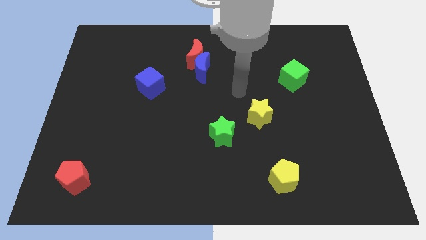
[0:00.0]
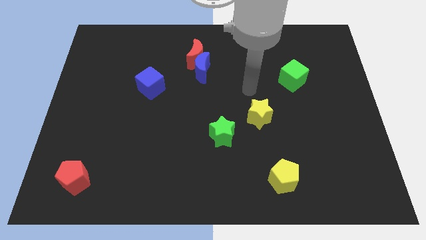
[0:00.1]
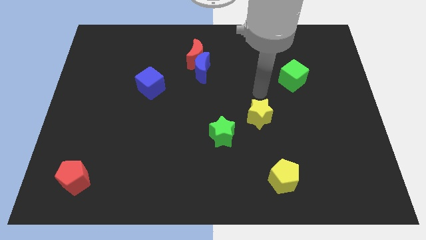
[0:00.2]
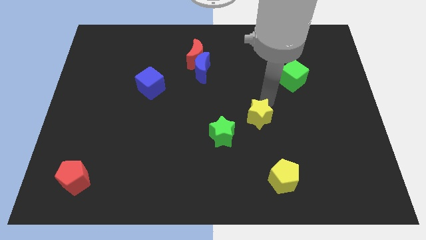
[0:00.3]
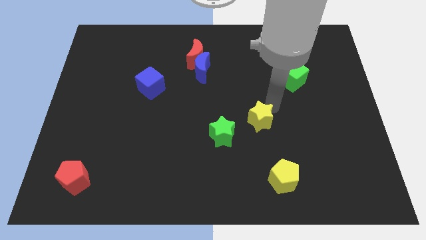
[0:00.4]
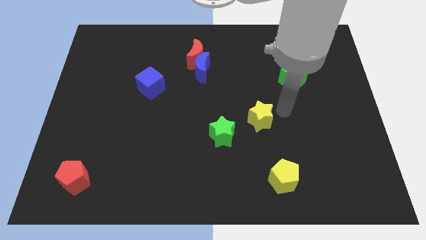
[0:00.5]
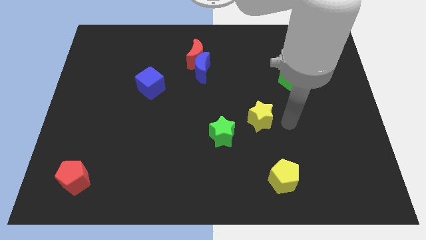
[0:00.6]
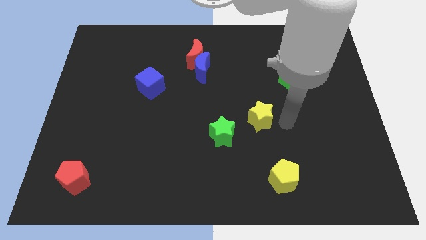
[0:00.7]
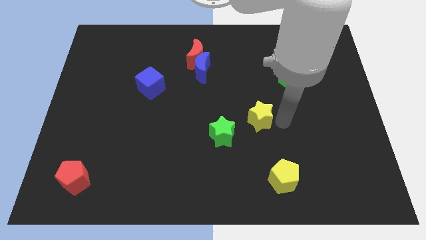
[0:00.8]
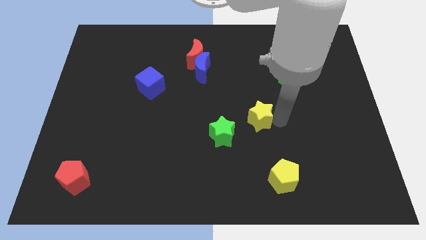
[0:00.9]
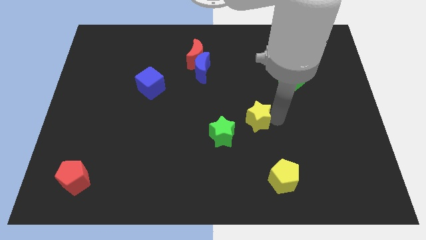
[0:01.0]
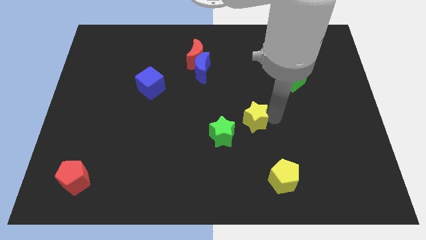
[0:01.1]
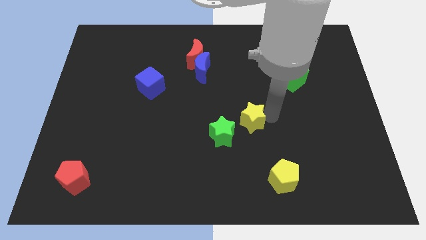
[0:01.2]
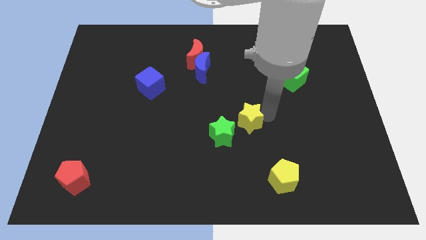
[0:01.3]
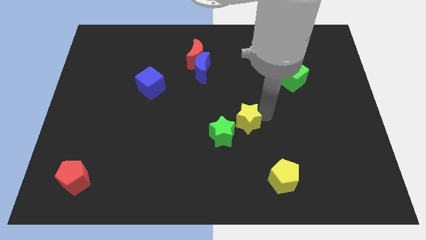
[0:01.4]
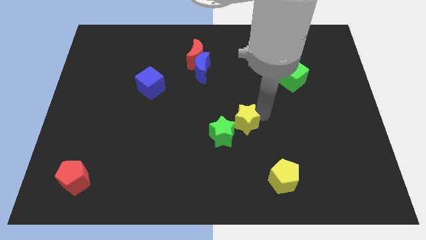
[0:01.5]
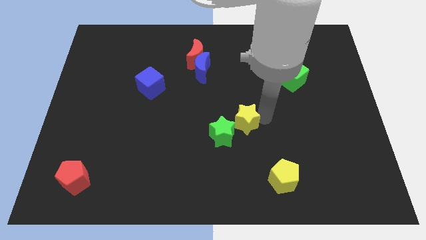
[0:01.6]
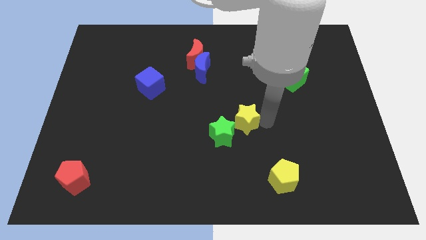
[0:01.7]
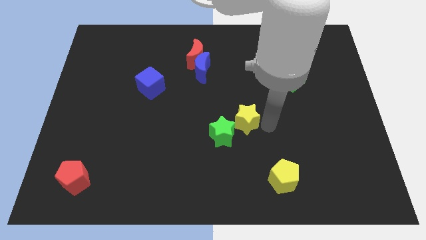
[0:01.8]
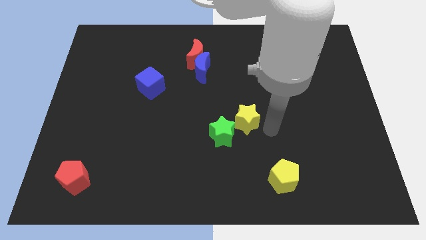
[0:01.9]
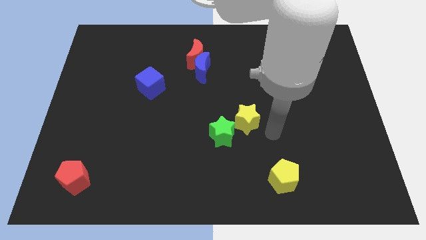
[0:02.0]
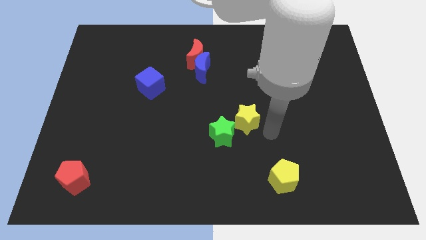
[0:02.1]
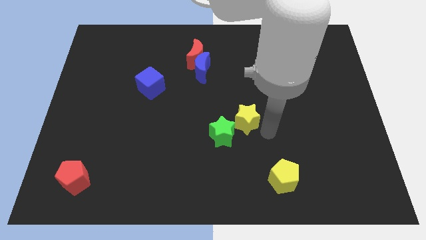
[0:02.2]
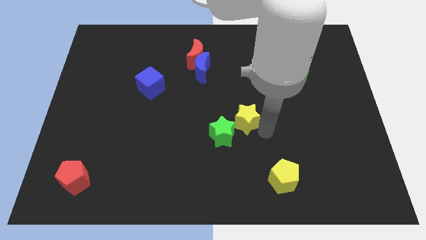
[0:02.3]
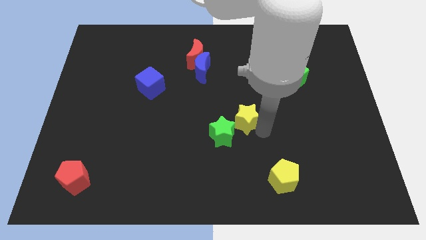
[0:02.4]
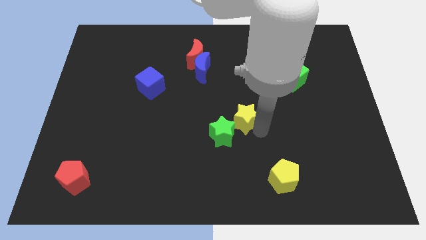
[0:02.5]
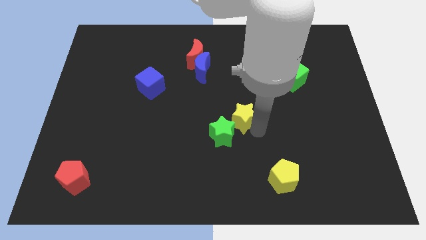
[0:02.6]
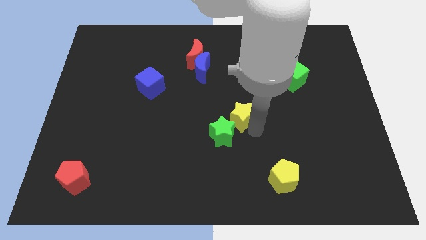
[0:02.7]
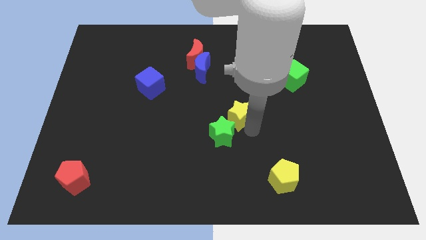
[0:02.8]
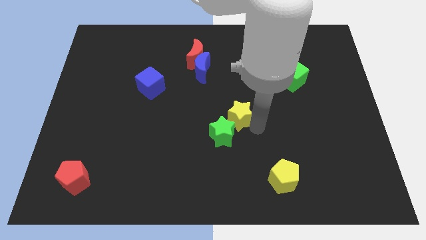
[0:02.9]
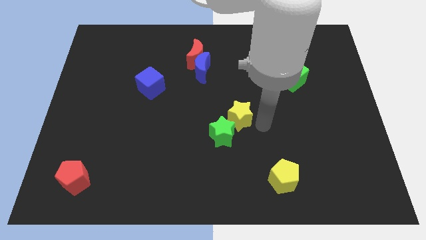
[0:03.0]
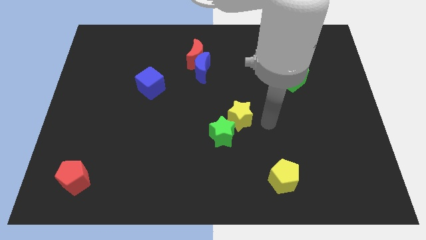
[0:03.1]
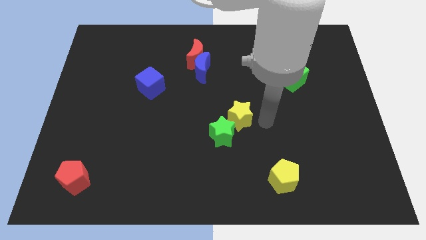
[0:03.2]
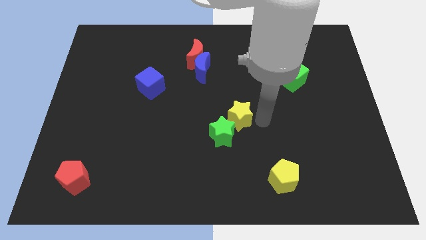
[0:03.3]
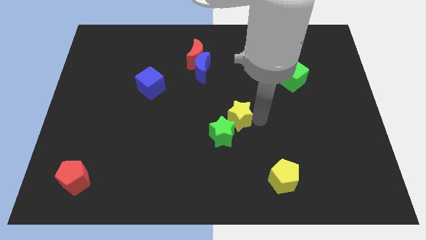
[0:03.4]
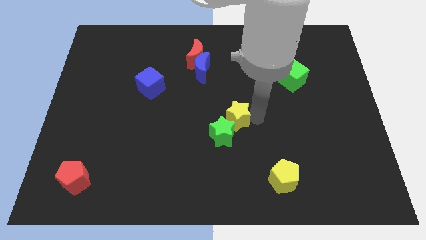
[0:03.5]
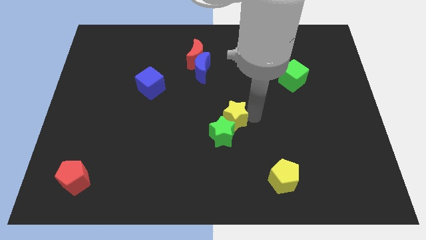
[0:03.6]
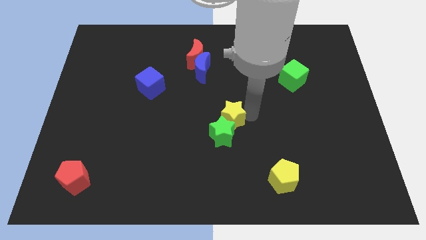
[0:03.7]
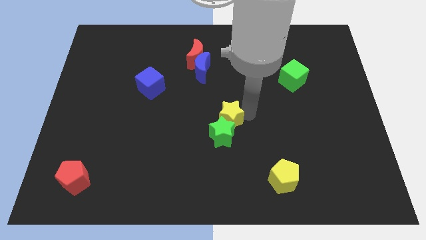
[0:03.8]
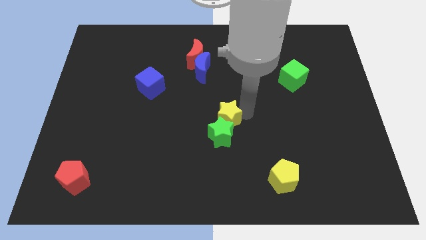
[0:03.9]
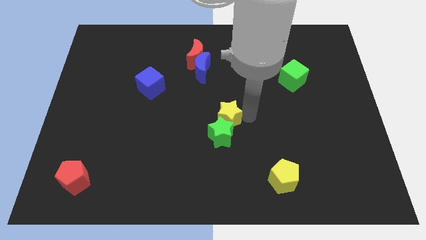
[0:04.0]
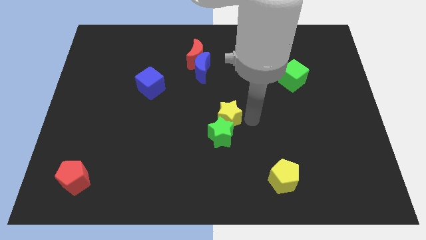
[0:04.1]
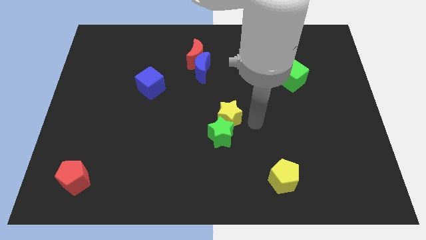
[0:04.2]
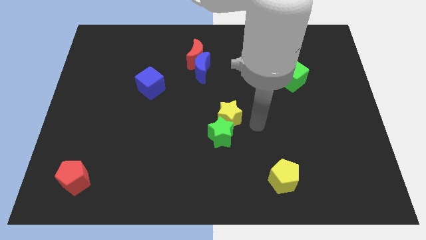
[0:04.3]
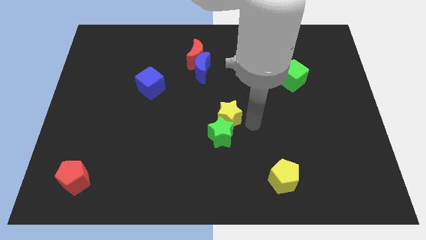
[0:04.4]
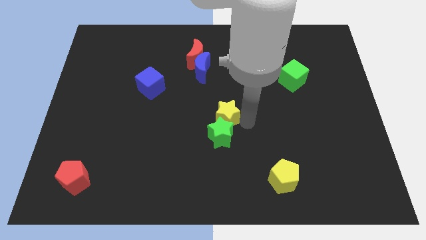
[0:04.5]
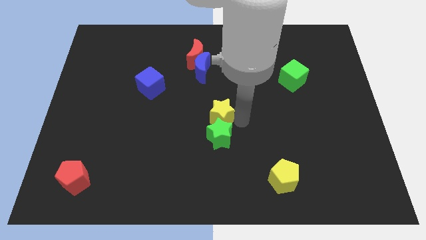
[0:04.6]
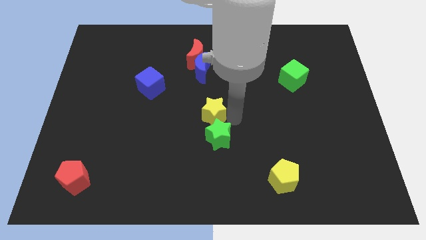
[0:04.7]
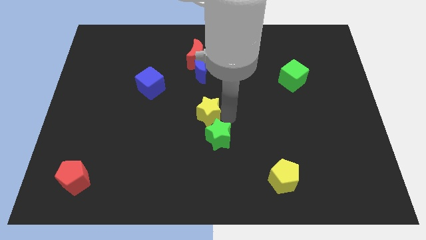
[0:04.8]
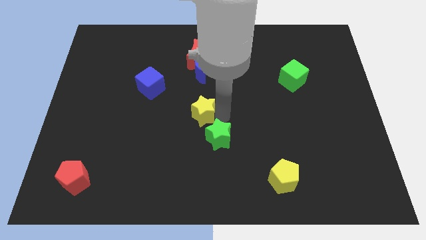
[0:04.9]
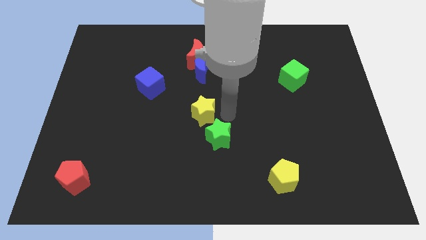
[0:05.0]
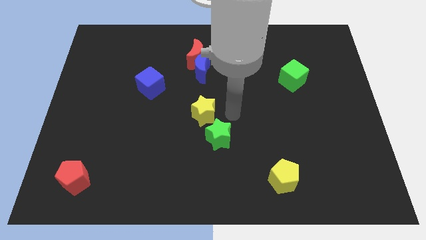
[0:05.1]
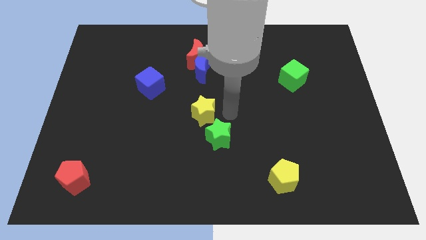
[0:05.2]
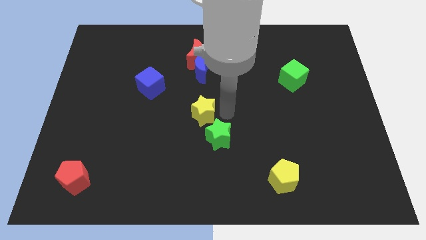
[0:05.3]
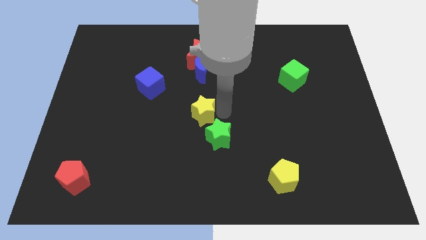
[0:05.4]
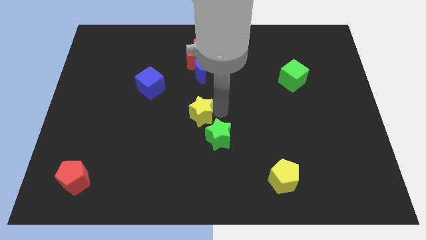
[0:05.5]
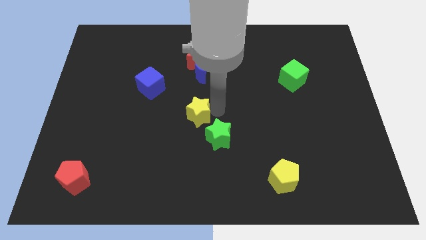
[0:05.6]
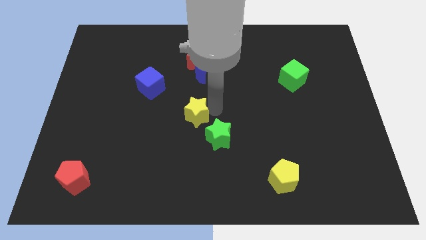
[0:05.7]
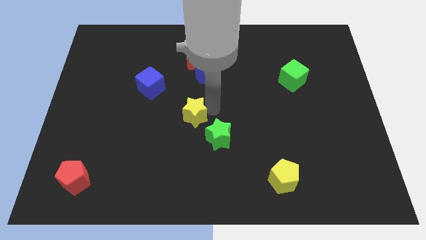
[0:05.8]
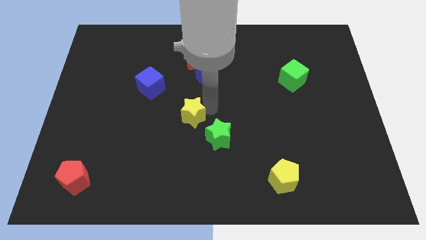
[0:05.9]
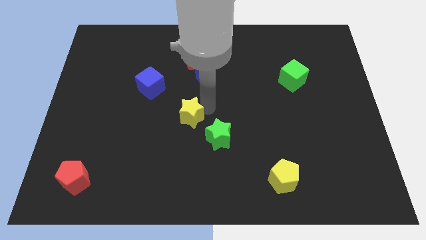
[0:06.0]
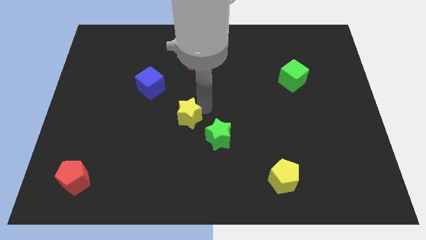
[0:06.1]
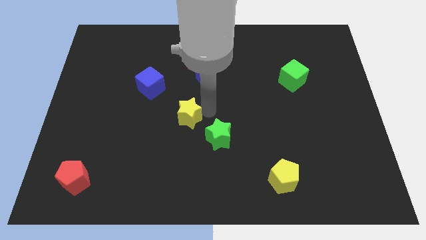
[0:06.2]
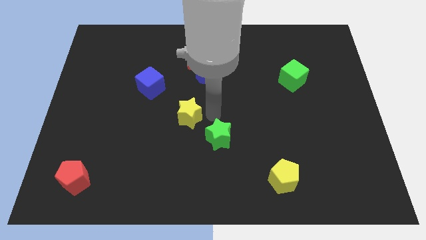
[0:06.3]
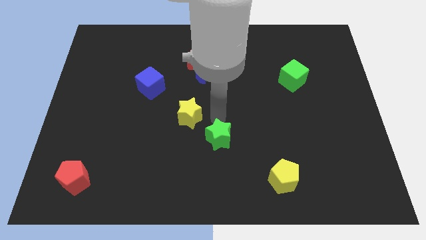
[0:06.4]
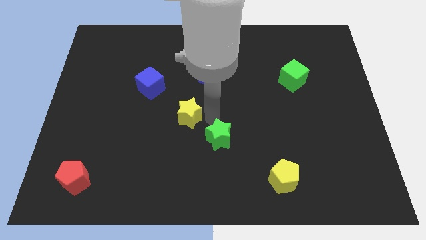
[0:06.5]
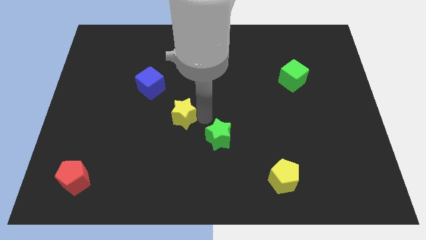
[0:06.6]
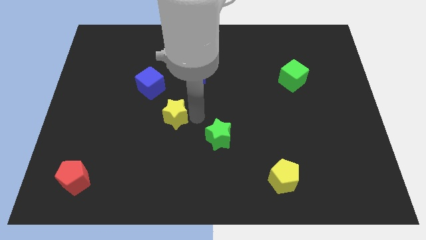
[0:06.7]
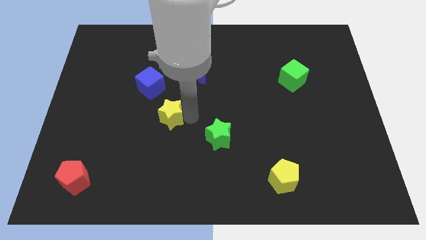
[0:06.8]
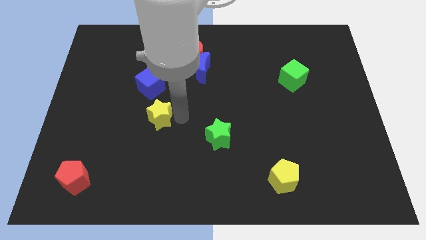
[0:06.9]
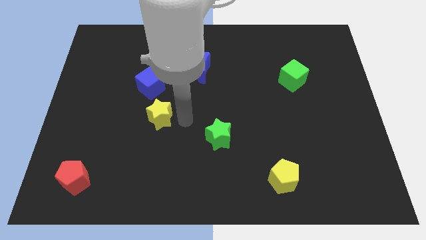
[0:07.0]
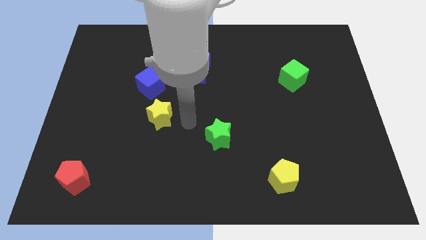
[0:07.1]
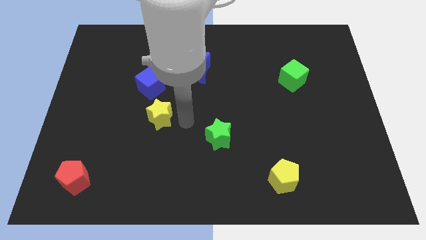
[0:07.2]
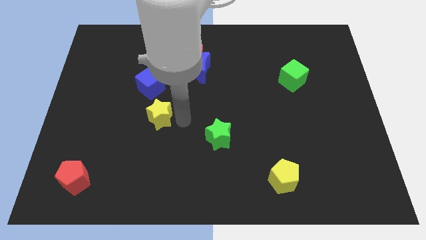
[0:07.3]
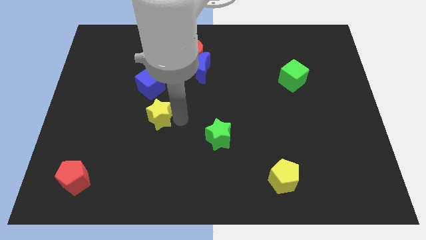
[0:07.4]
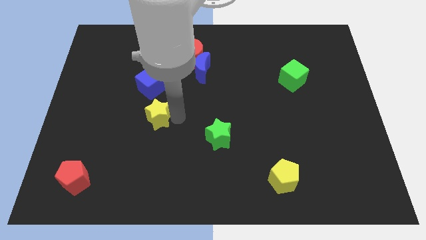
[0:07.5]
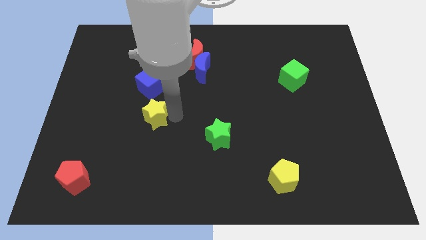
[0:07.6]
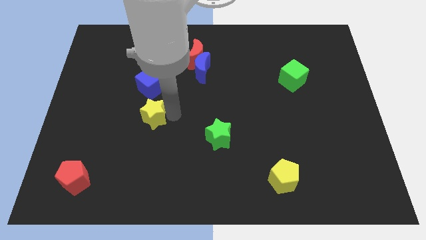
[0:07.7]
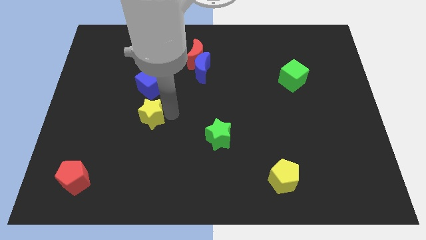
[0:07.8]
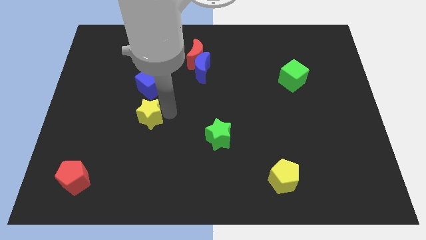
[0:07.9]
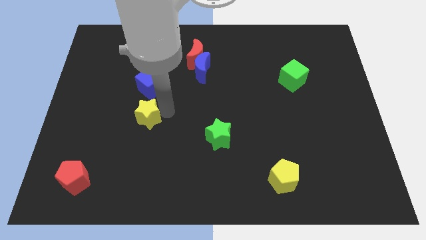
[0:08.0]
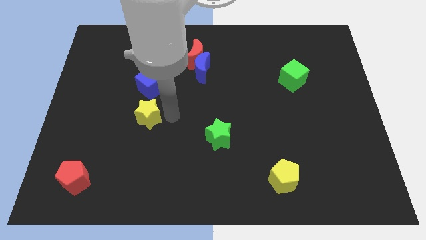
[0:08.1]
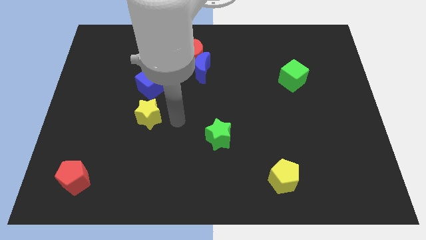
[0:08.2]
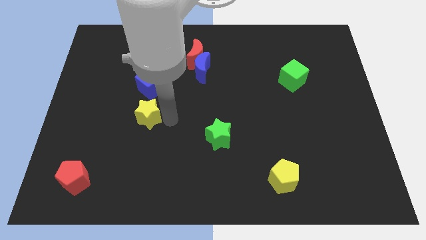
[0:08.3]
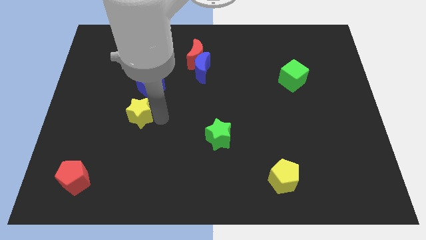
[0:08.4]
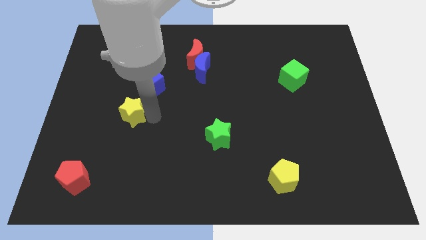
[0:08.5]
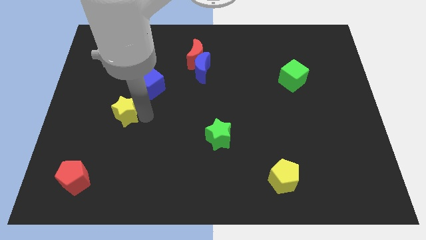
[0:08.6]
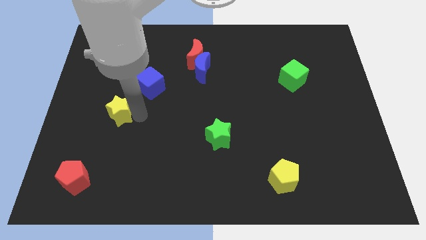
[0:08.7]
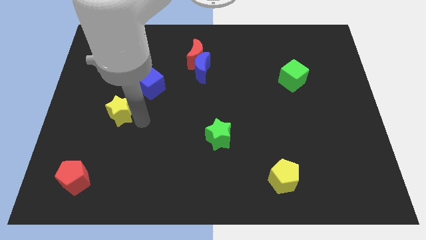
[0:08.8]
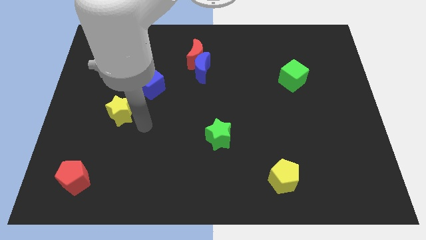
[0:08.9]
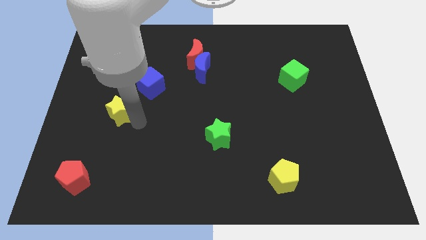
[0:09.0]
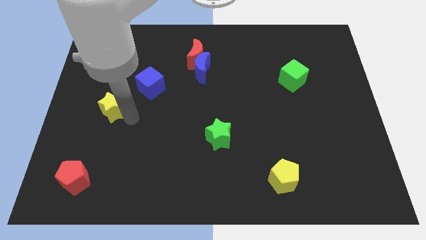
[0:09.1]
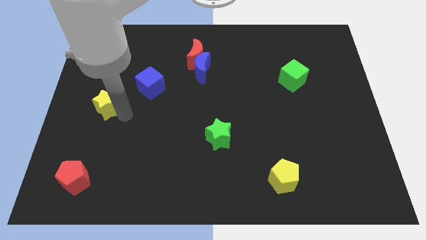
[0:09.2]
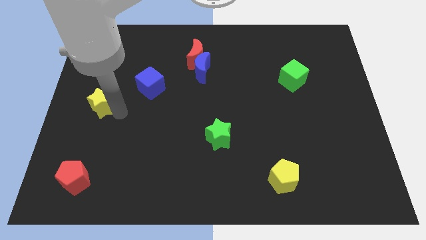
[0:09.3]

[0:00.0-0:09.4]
put the yellow star to the left side of the board
